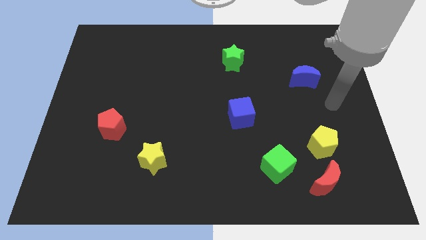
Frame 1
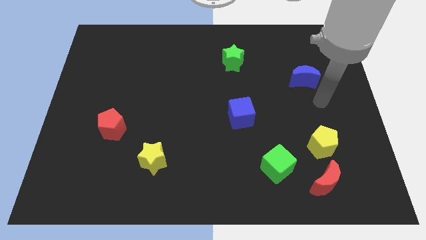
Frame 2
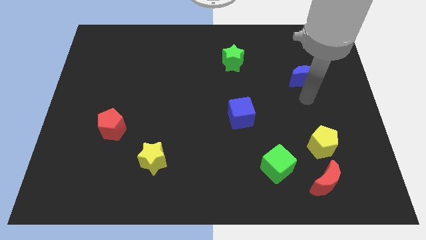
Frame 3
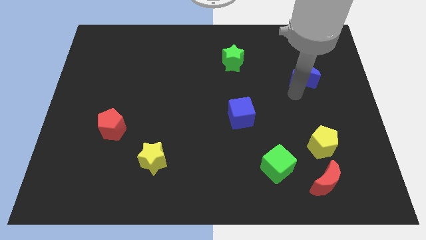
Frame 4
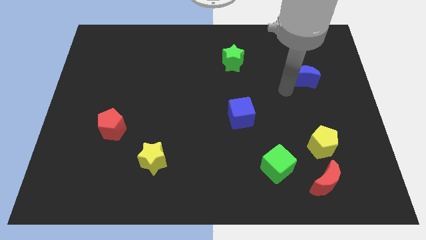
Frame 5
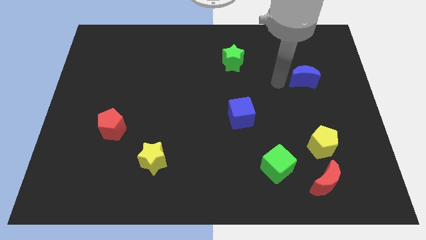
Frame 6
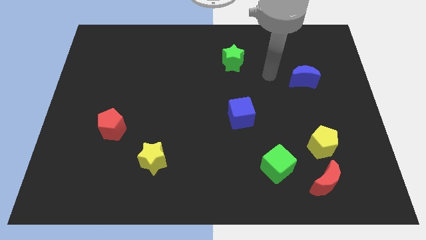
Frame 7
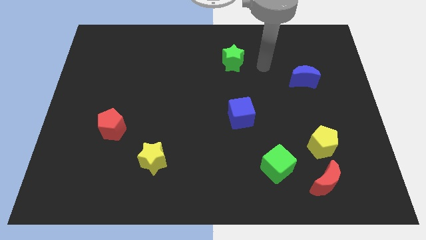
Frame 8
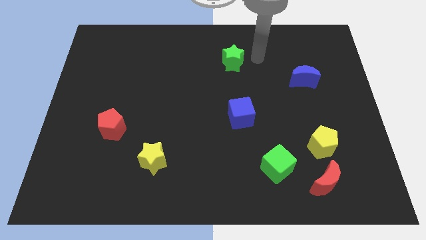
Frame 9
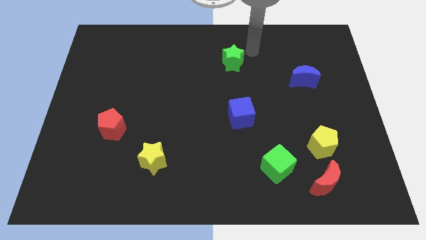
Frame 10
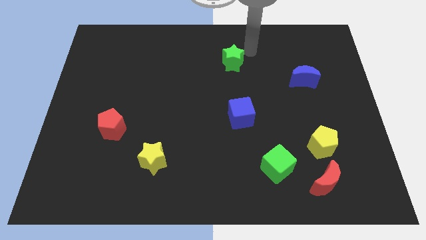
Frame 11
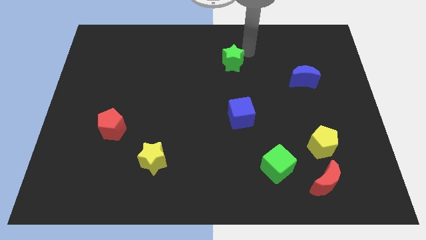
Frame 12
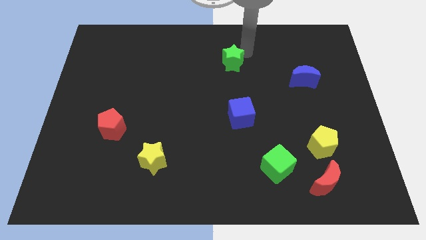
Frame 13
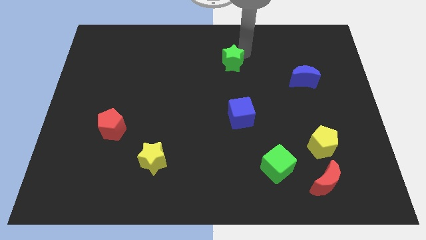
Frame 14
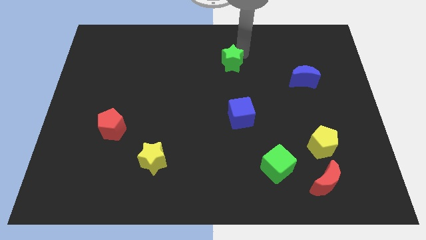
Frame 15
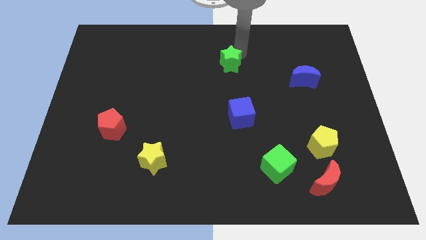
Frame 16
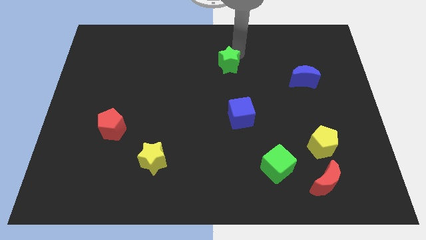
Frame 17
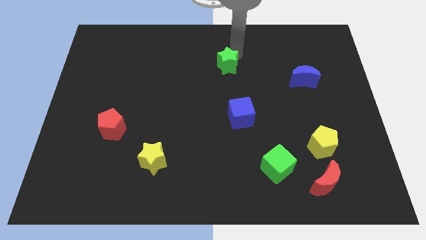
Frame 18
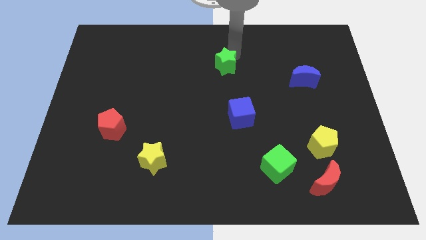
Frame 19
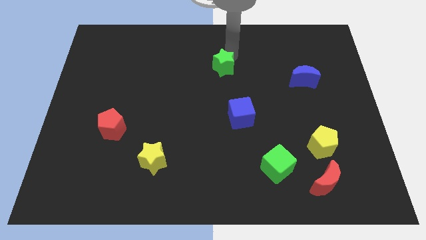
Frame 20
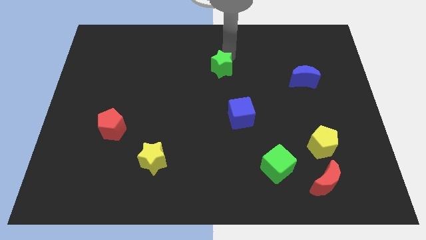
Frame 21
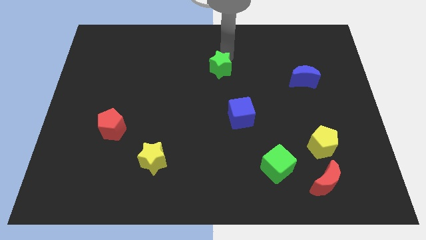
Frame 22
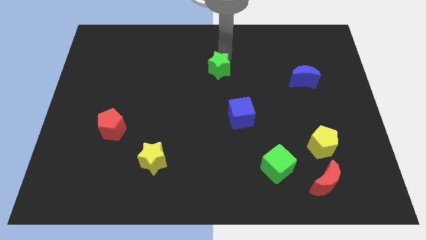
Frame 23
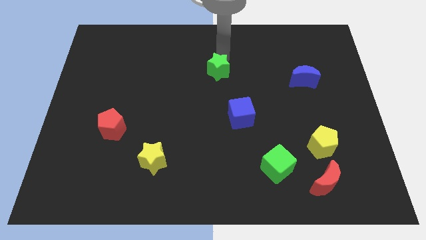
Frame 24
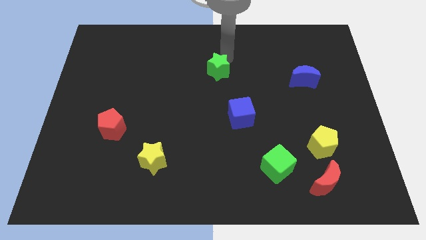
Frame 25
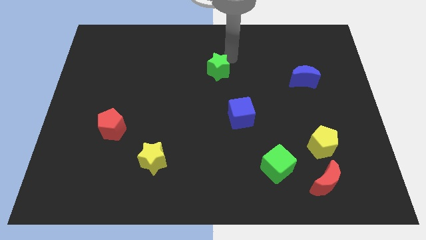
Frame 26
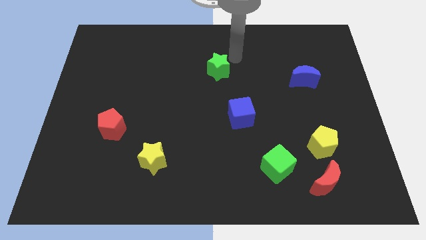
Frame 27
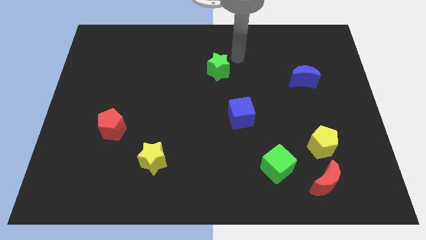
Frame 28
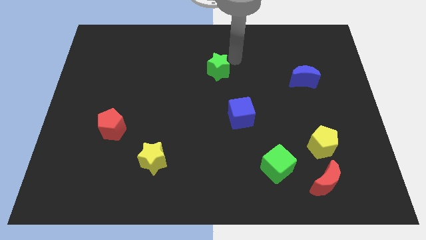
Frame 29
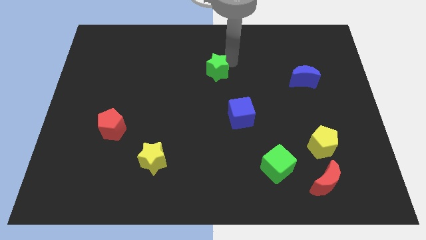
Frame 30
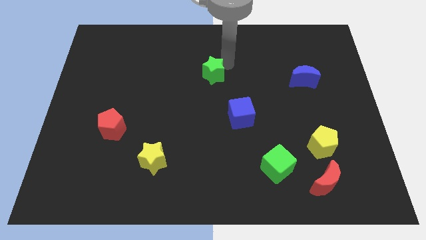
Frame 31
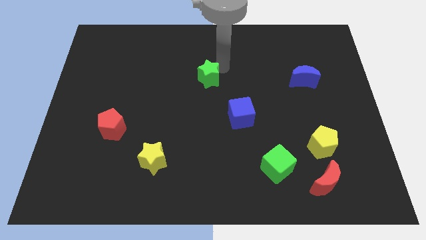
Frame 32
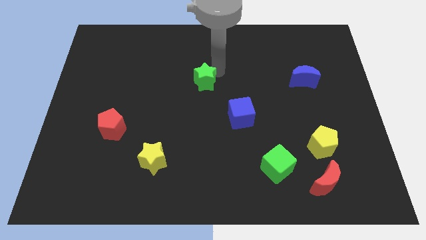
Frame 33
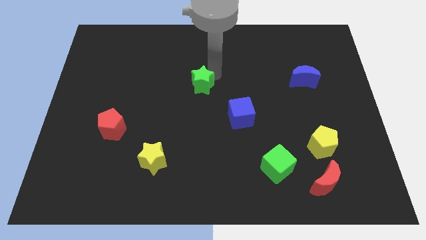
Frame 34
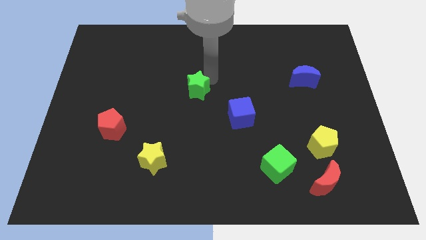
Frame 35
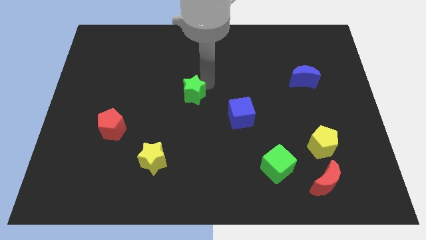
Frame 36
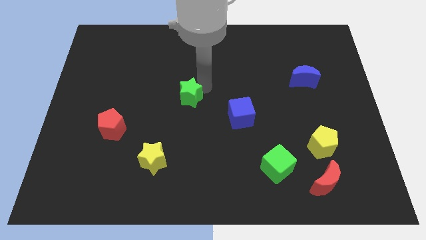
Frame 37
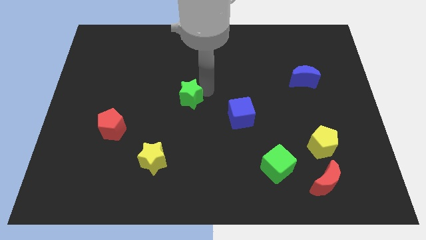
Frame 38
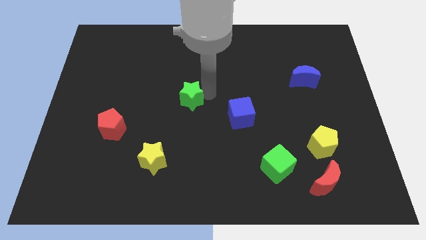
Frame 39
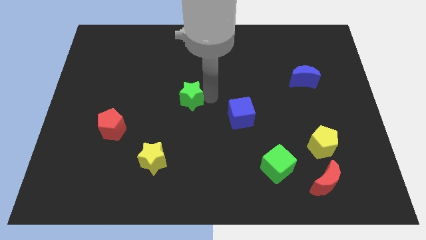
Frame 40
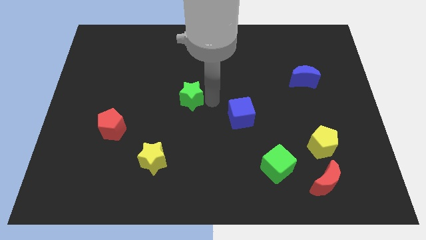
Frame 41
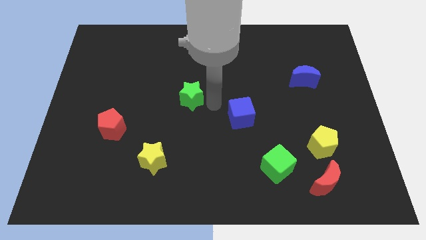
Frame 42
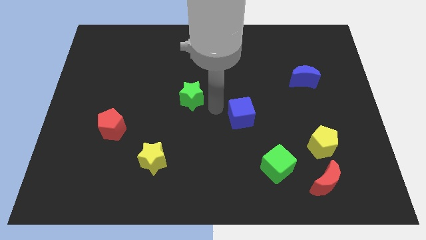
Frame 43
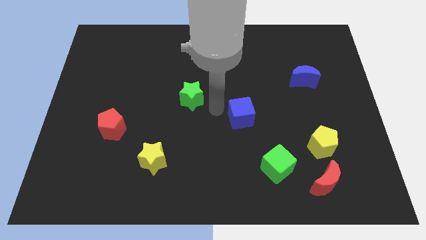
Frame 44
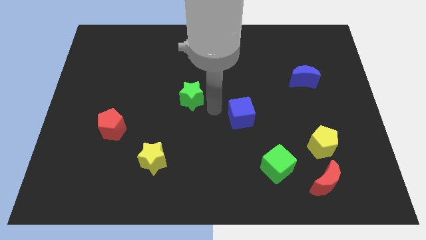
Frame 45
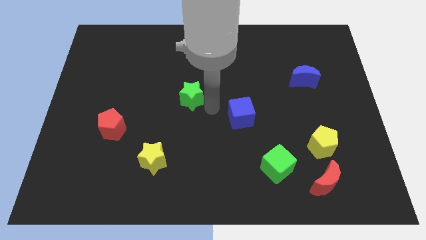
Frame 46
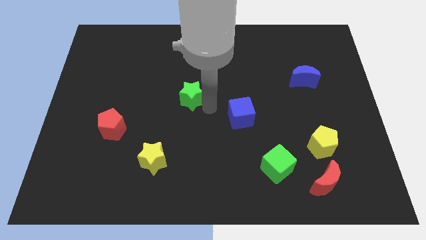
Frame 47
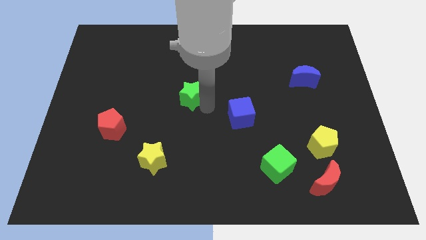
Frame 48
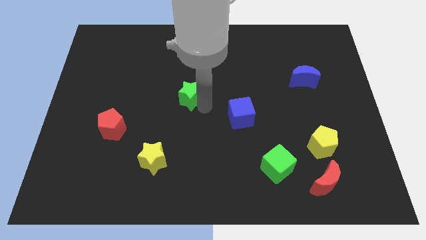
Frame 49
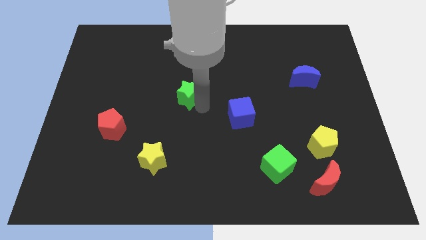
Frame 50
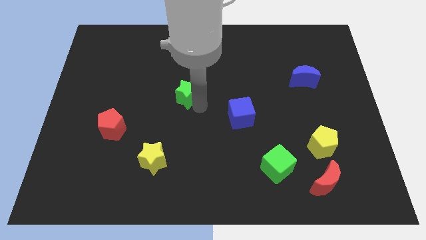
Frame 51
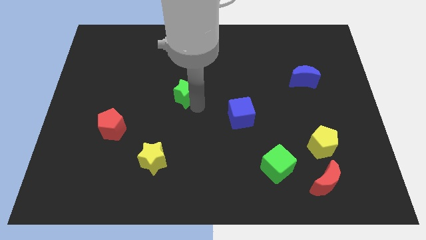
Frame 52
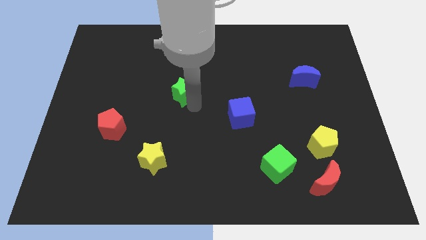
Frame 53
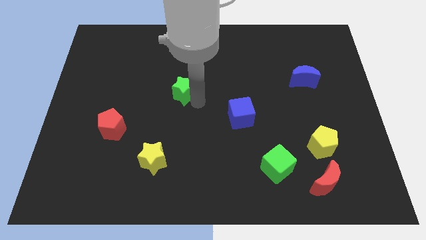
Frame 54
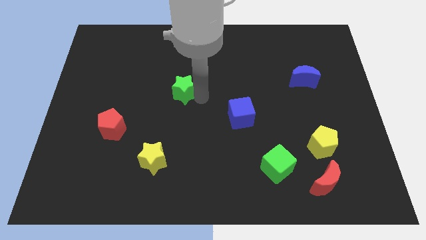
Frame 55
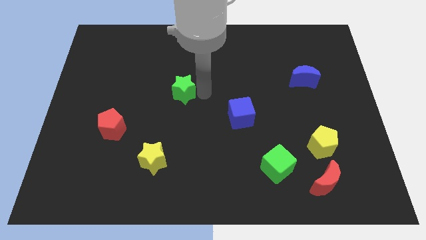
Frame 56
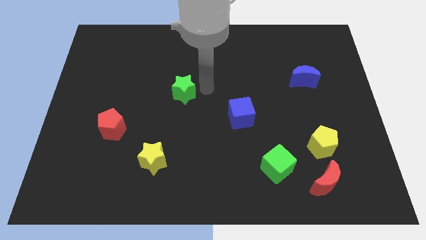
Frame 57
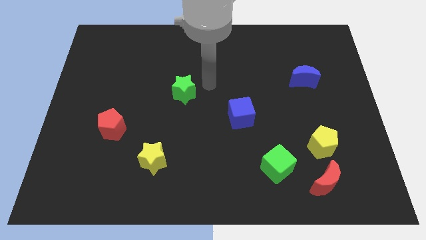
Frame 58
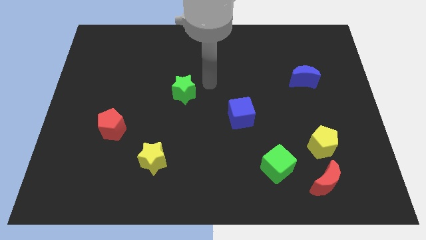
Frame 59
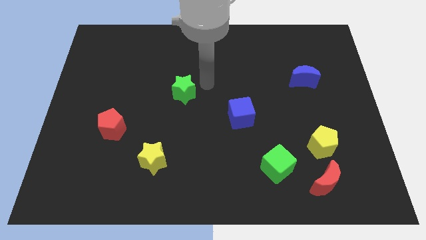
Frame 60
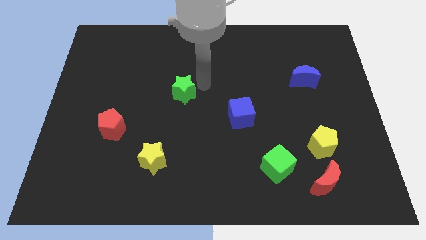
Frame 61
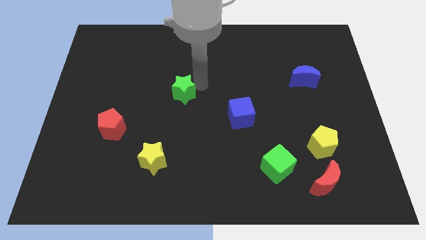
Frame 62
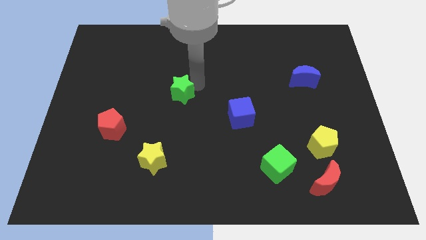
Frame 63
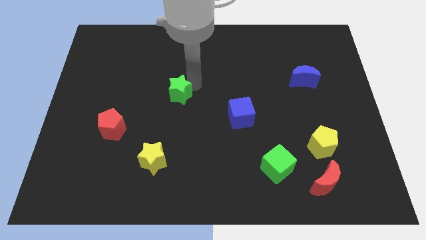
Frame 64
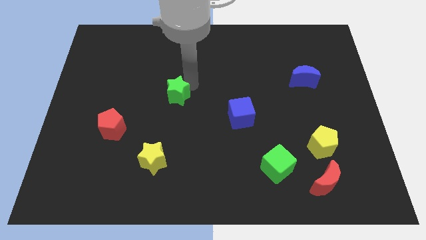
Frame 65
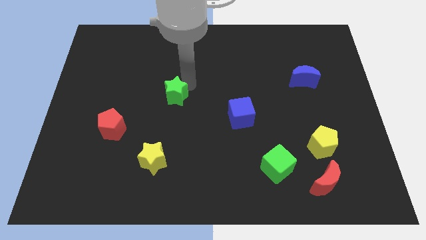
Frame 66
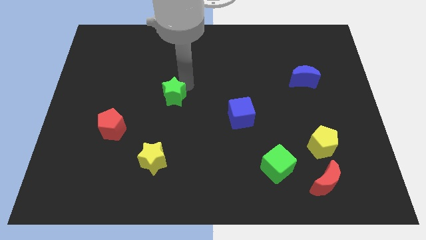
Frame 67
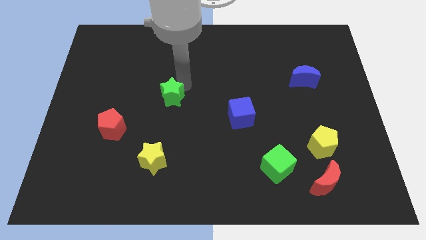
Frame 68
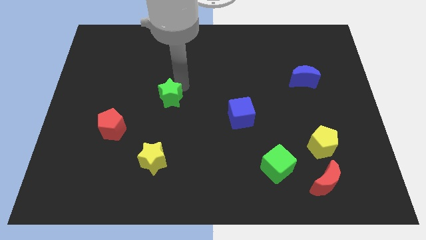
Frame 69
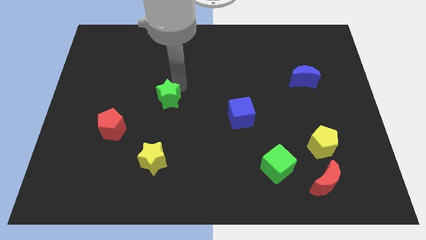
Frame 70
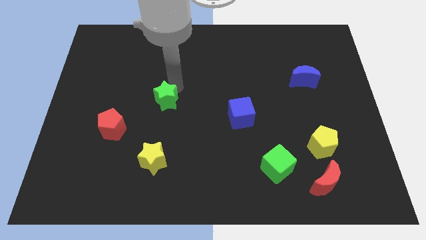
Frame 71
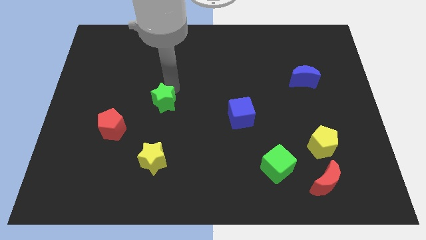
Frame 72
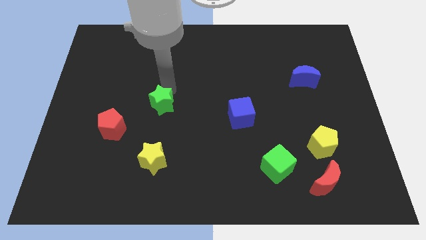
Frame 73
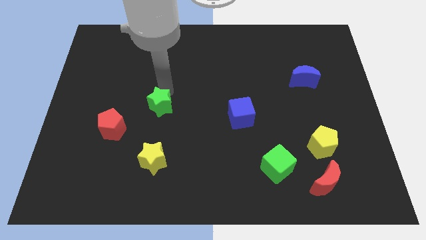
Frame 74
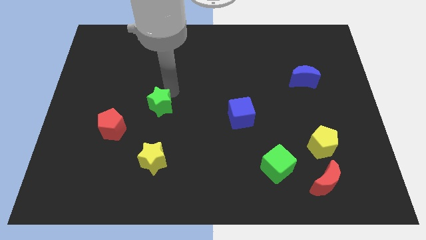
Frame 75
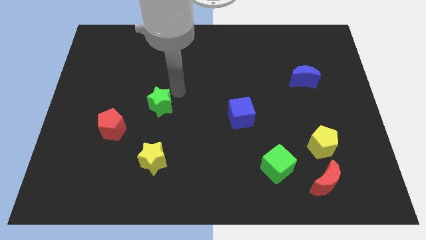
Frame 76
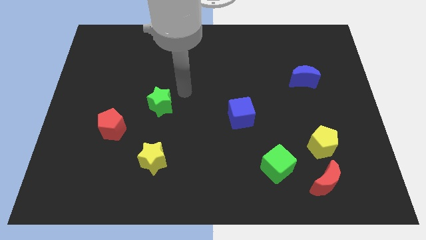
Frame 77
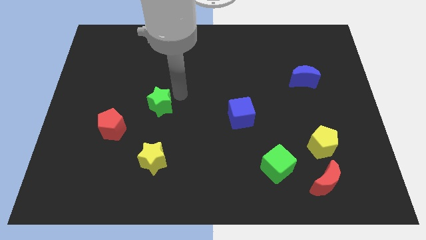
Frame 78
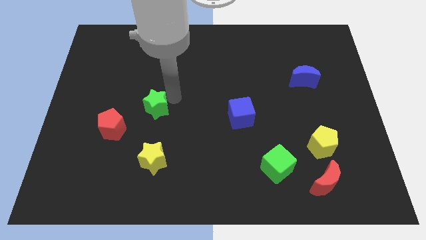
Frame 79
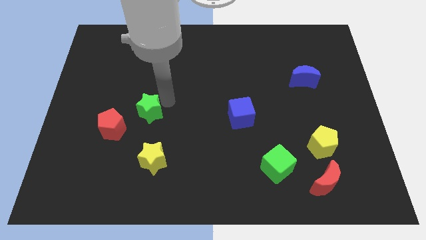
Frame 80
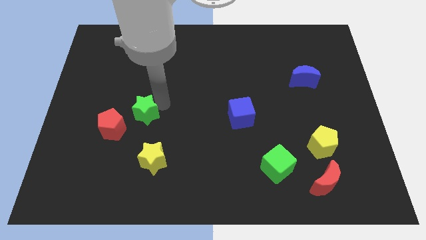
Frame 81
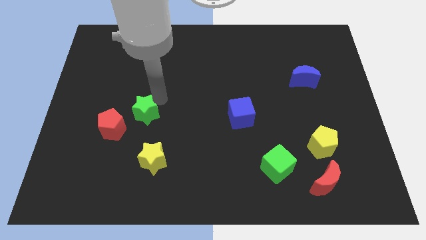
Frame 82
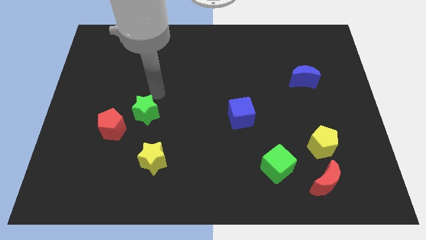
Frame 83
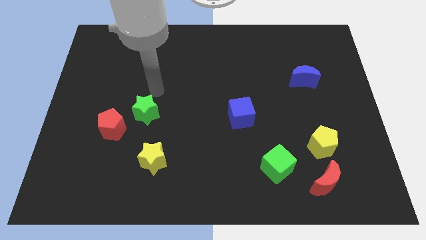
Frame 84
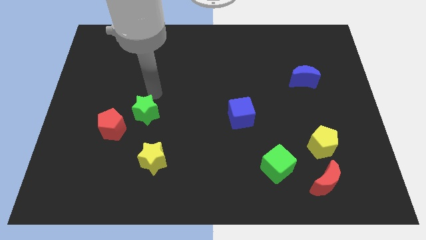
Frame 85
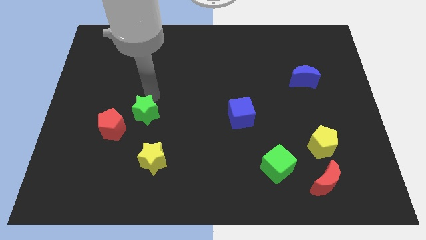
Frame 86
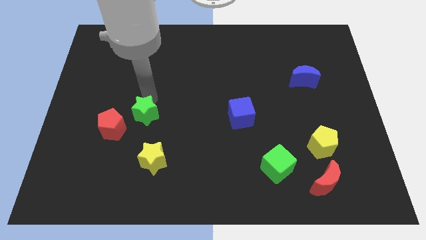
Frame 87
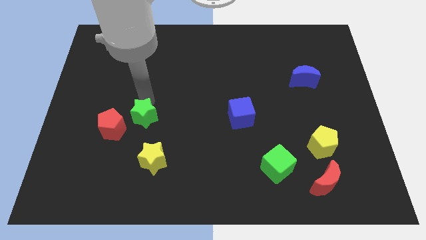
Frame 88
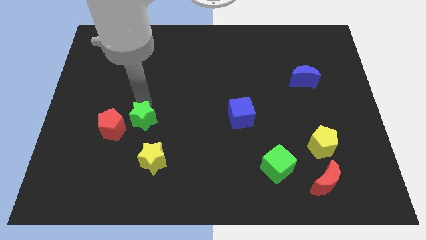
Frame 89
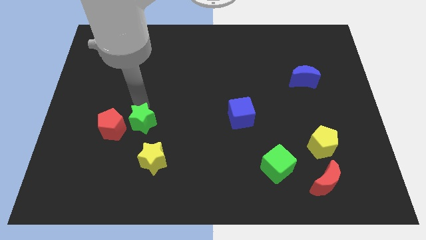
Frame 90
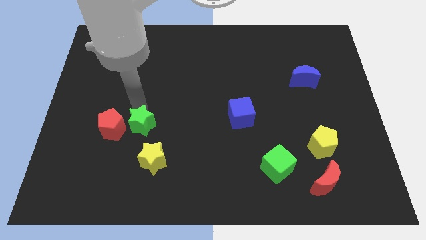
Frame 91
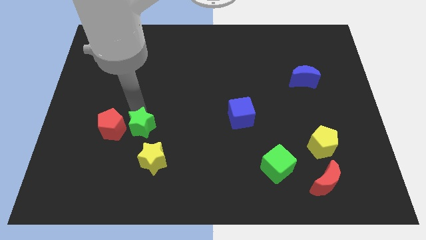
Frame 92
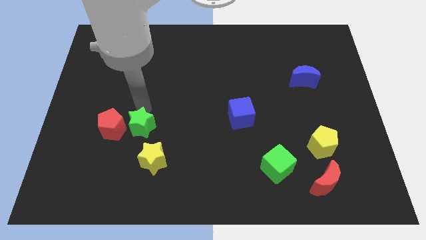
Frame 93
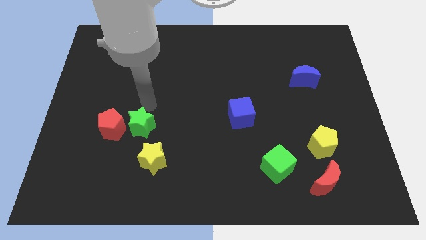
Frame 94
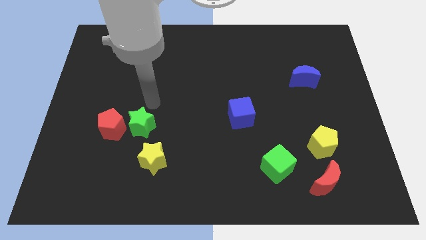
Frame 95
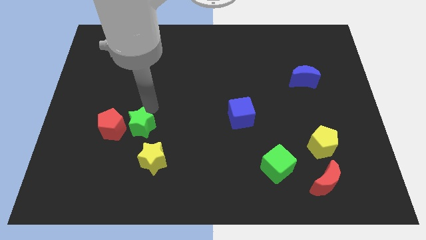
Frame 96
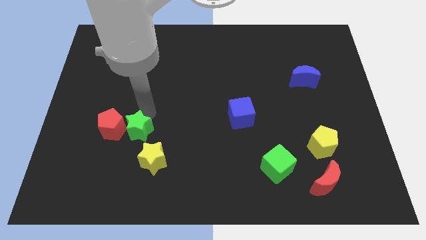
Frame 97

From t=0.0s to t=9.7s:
slide the green star diagonally down and to the right of the red pentagon
